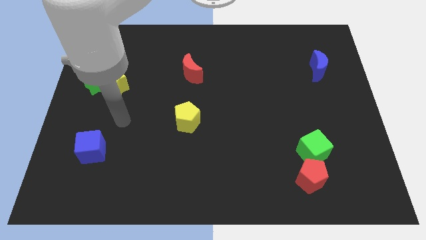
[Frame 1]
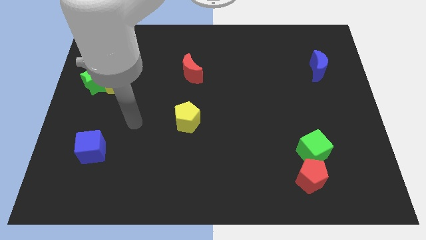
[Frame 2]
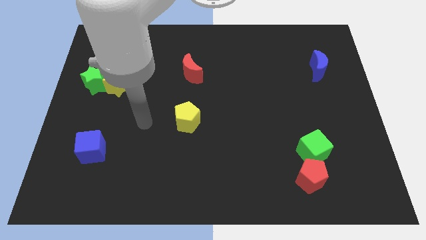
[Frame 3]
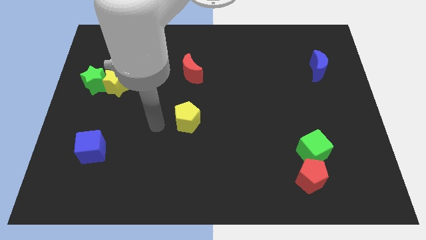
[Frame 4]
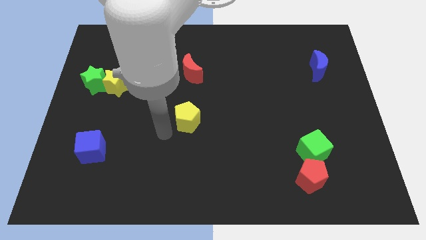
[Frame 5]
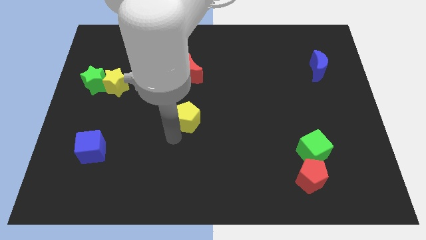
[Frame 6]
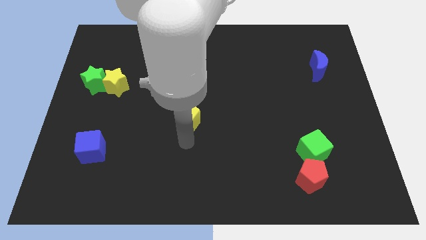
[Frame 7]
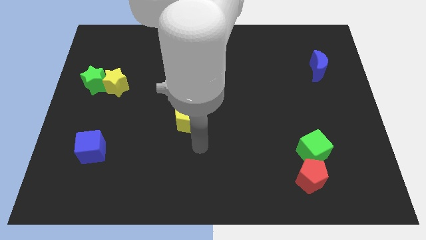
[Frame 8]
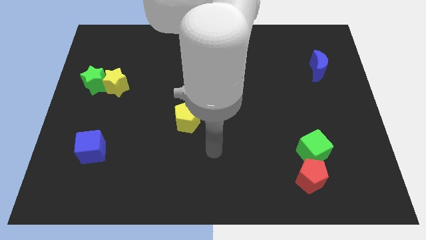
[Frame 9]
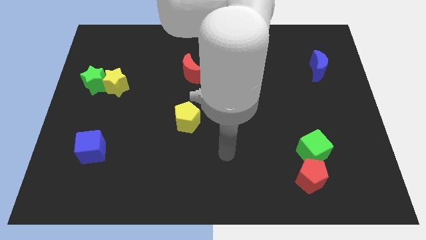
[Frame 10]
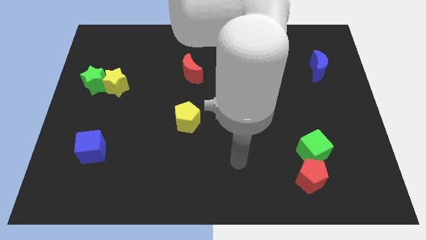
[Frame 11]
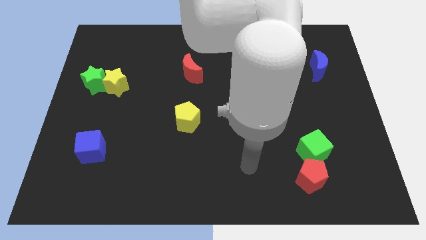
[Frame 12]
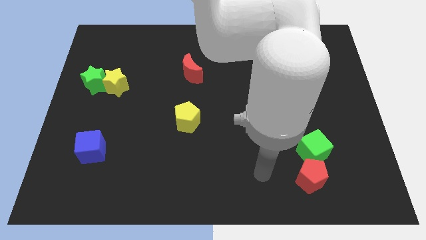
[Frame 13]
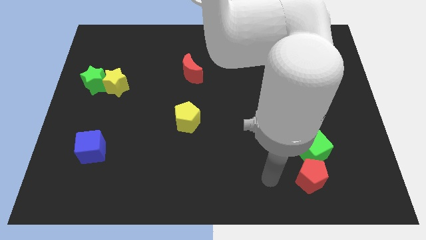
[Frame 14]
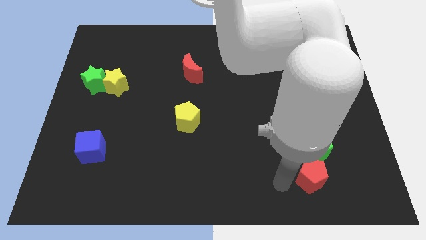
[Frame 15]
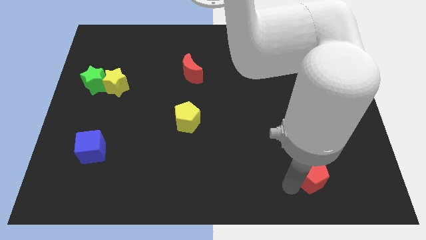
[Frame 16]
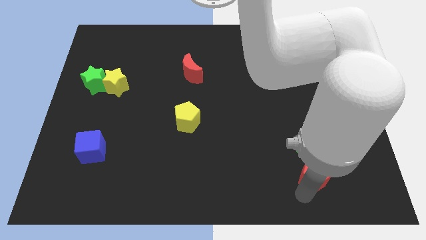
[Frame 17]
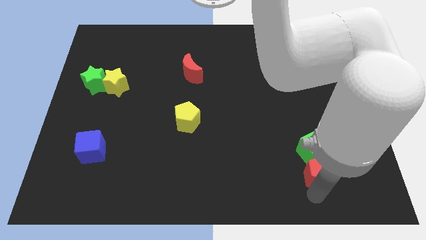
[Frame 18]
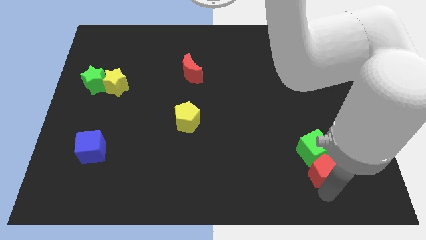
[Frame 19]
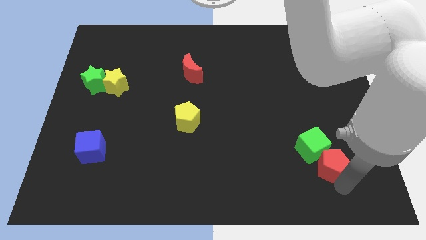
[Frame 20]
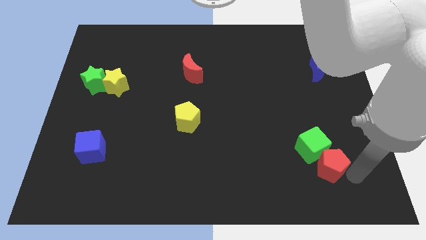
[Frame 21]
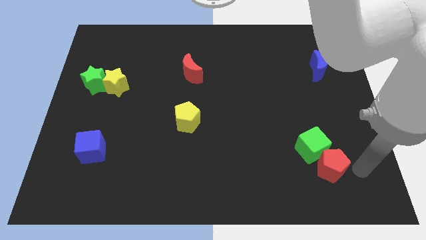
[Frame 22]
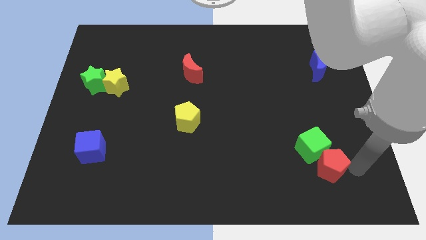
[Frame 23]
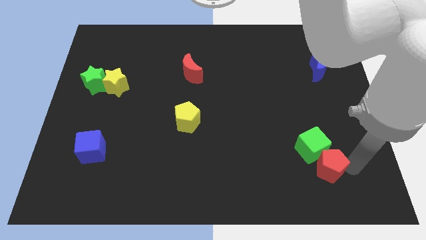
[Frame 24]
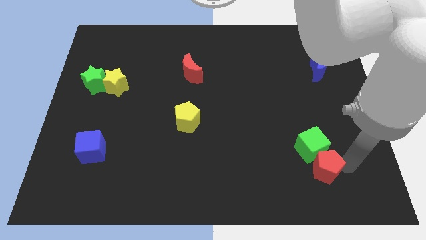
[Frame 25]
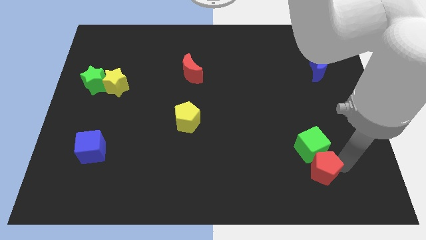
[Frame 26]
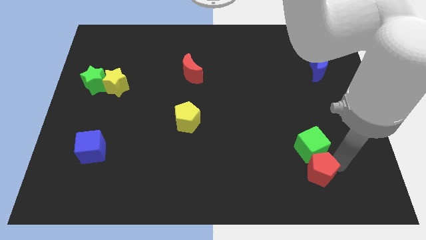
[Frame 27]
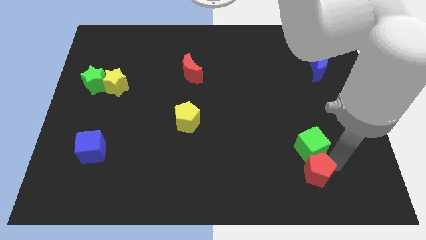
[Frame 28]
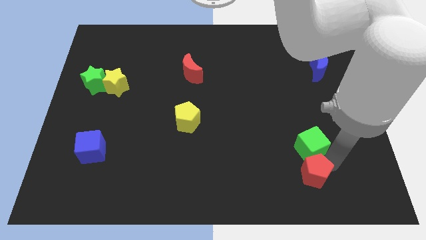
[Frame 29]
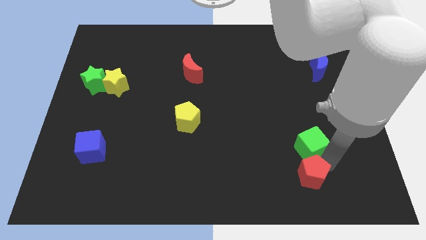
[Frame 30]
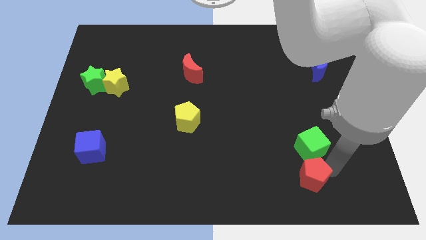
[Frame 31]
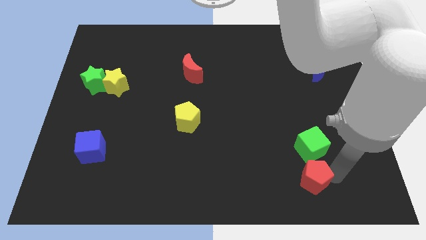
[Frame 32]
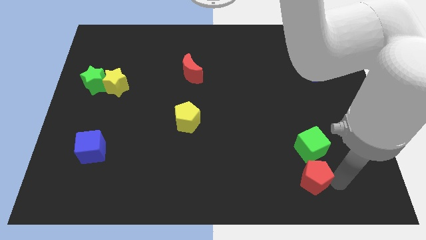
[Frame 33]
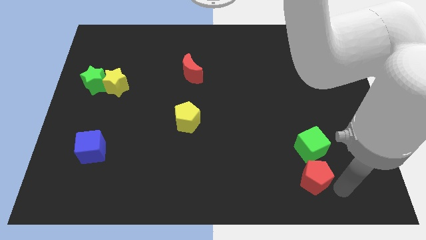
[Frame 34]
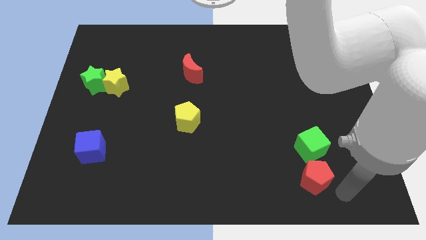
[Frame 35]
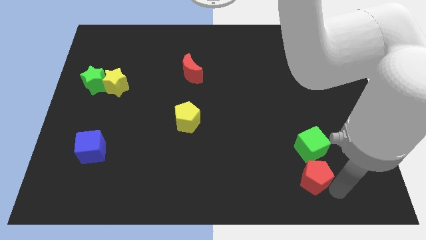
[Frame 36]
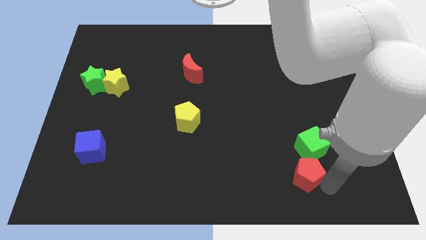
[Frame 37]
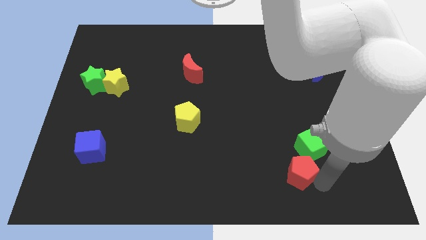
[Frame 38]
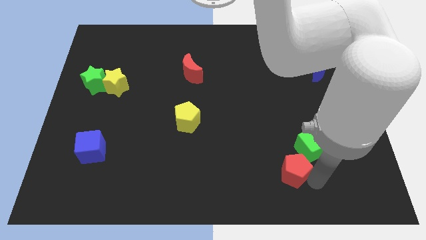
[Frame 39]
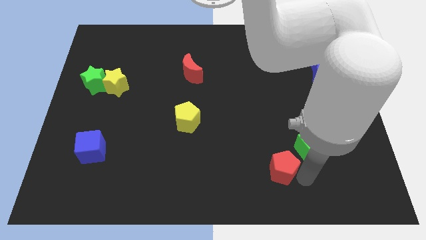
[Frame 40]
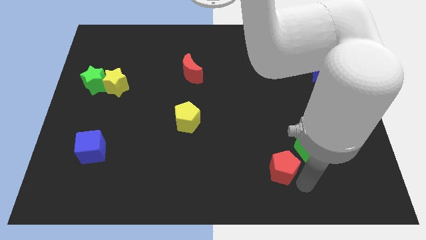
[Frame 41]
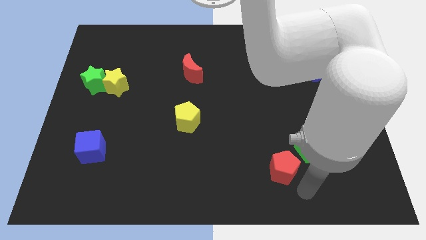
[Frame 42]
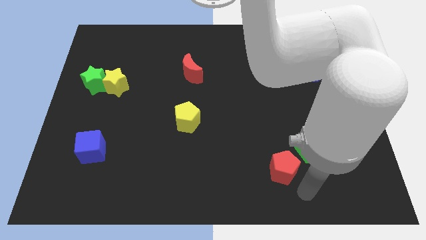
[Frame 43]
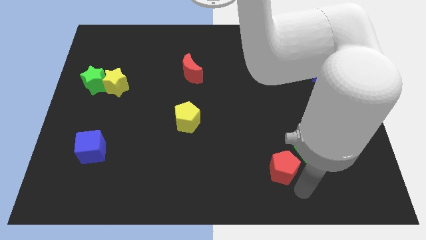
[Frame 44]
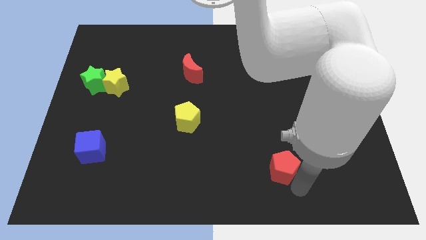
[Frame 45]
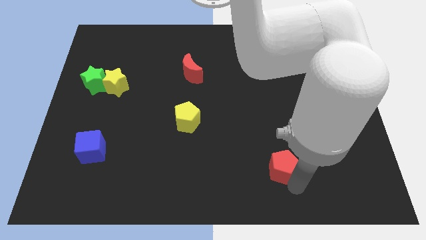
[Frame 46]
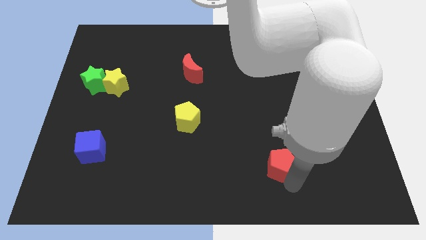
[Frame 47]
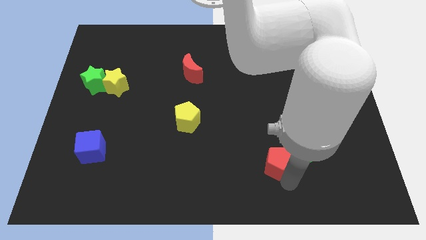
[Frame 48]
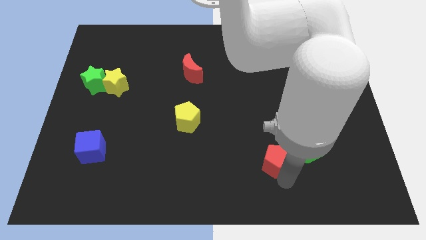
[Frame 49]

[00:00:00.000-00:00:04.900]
slide the red pentagon diagonally up and to the left slightly

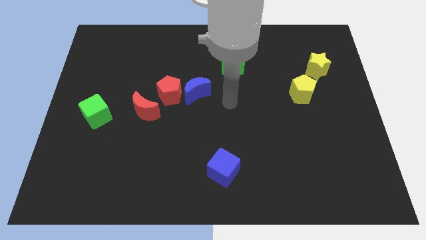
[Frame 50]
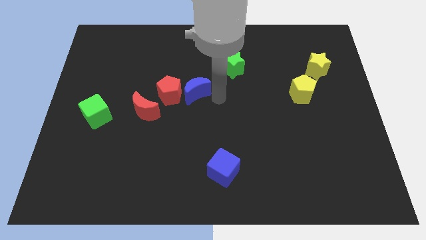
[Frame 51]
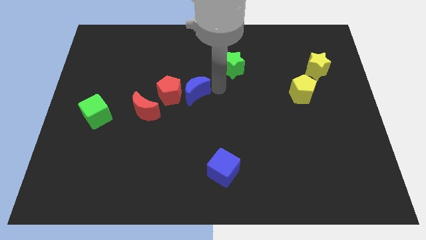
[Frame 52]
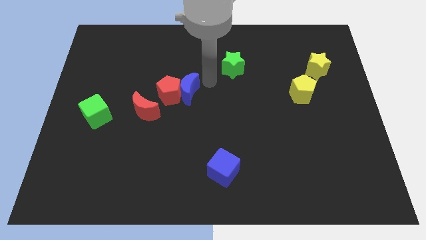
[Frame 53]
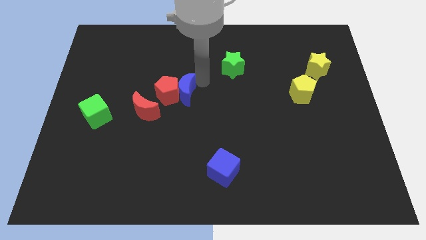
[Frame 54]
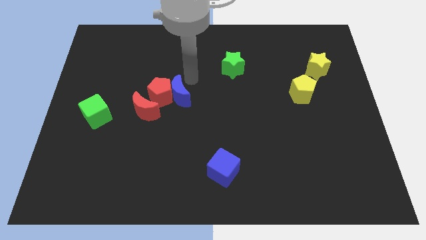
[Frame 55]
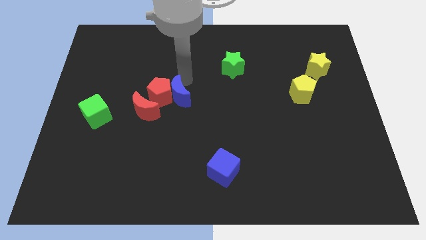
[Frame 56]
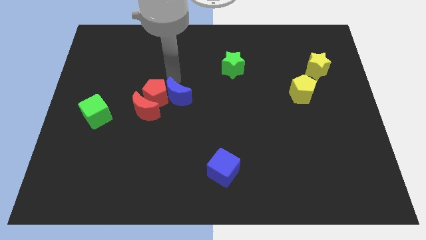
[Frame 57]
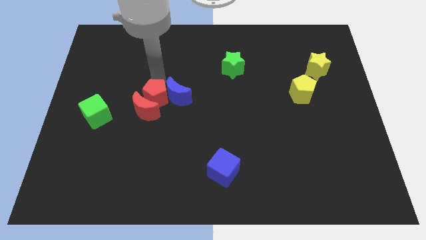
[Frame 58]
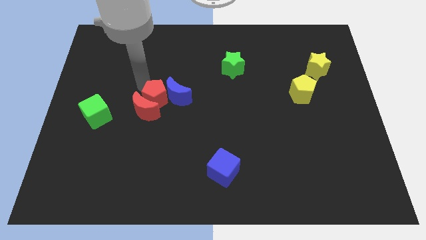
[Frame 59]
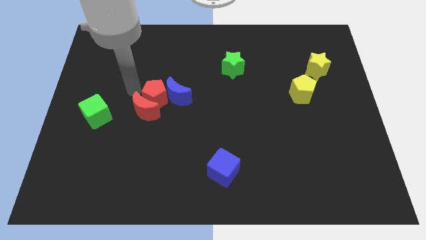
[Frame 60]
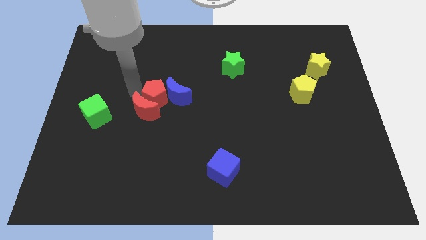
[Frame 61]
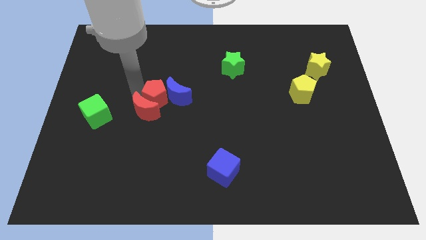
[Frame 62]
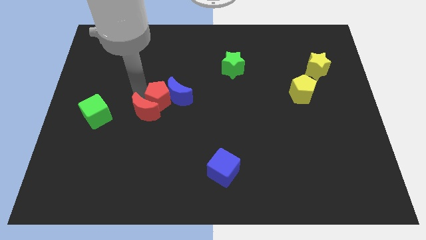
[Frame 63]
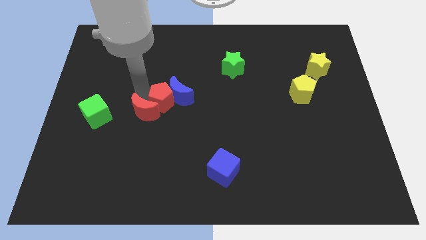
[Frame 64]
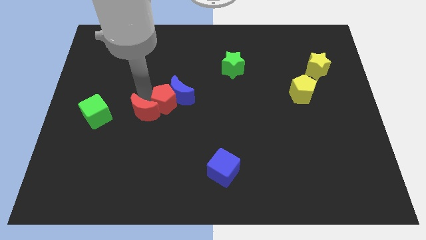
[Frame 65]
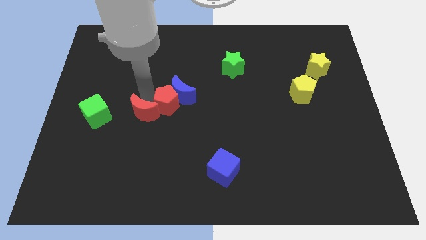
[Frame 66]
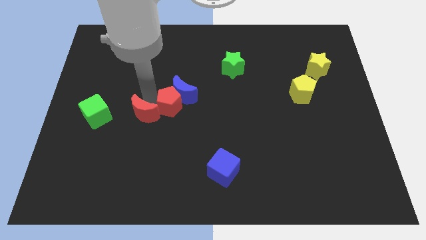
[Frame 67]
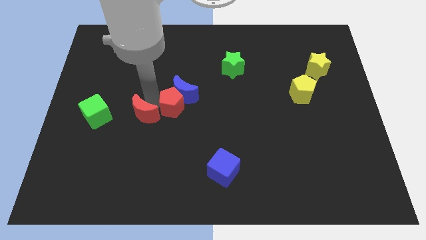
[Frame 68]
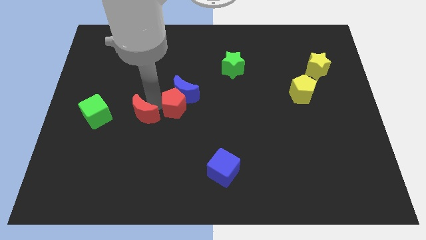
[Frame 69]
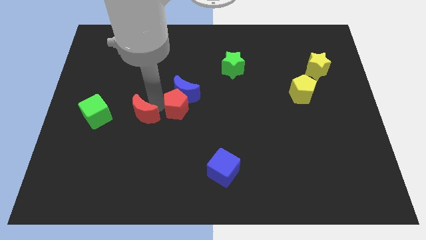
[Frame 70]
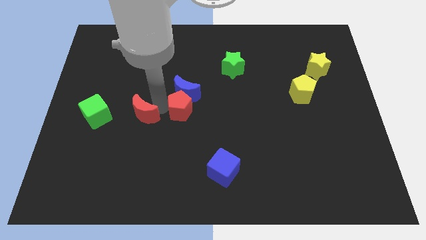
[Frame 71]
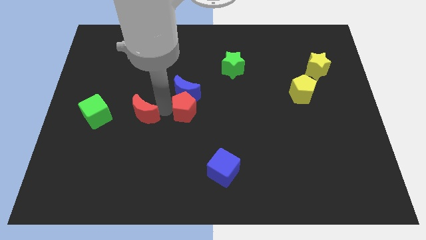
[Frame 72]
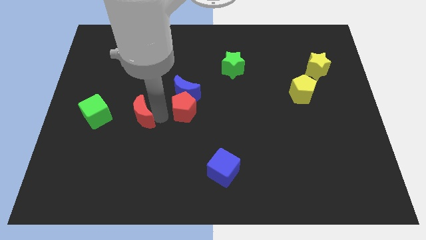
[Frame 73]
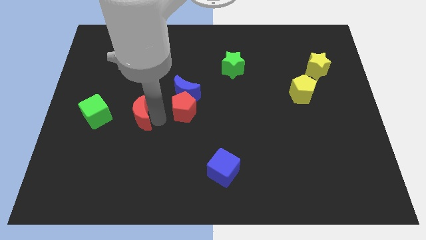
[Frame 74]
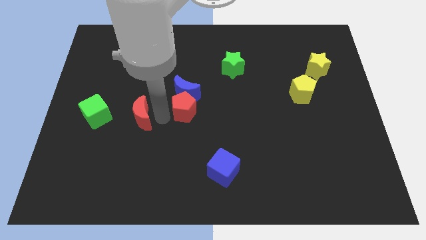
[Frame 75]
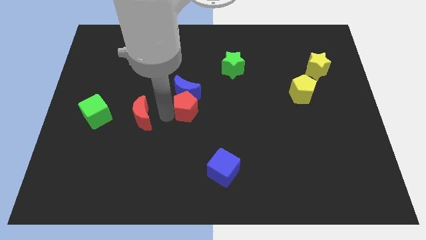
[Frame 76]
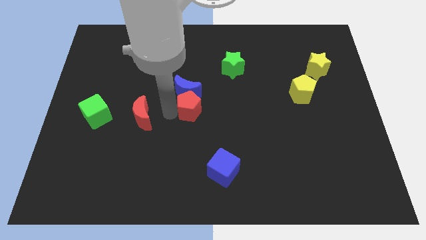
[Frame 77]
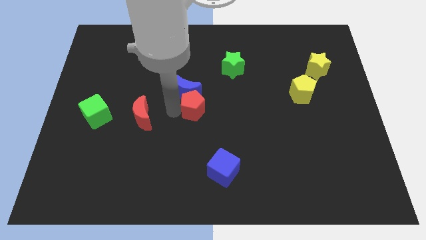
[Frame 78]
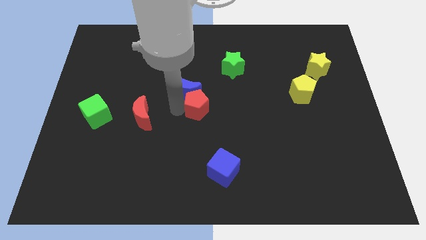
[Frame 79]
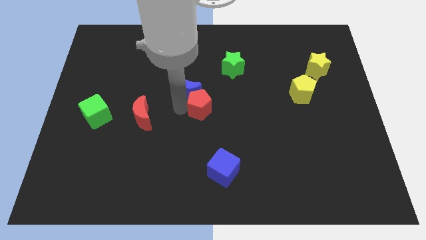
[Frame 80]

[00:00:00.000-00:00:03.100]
slide the red pentagon to the right a little bit
